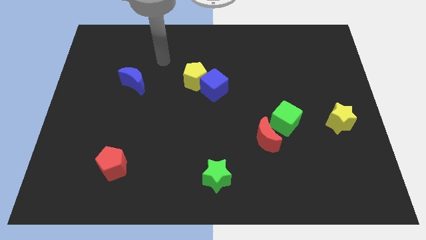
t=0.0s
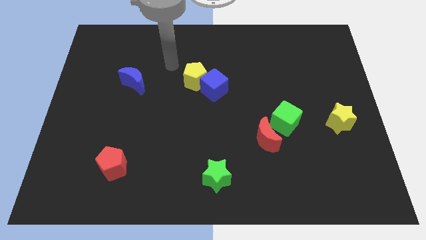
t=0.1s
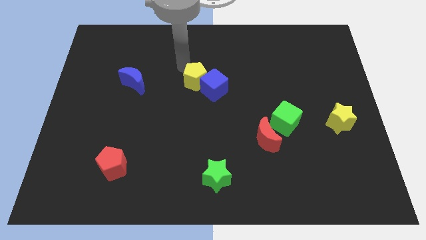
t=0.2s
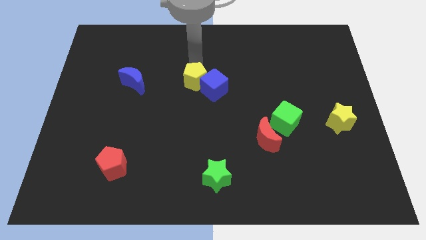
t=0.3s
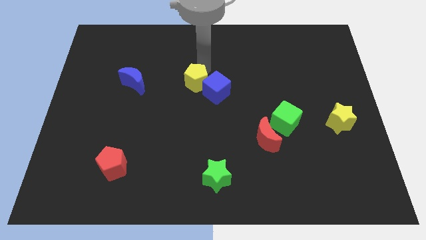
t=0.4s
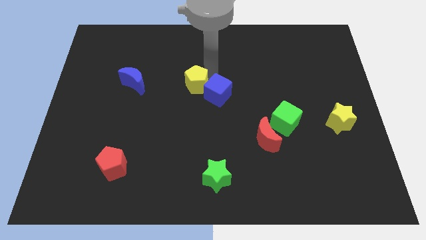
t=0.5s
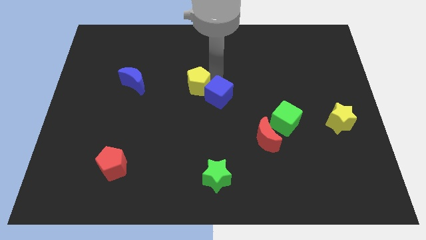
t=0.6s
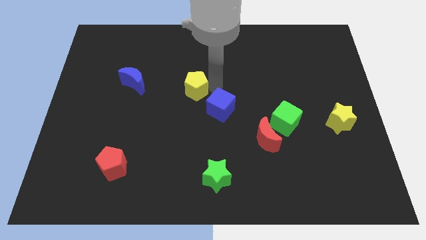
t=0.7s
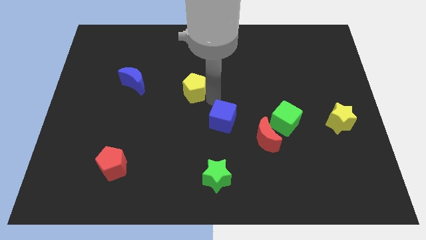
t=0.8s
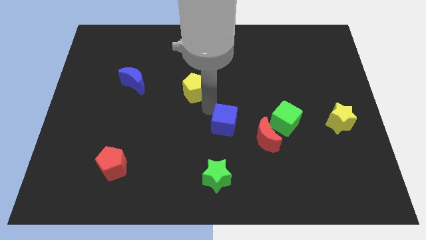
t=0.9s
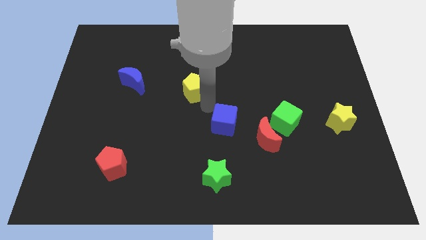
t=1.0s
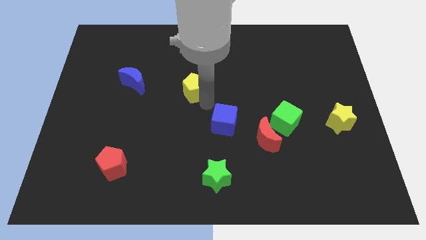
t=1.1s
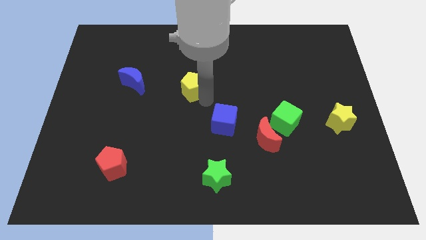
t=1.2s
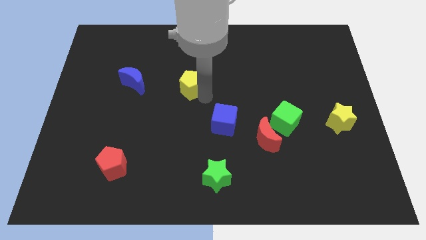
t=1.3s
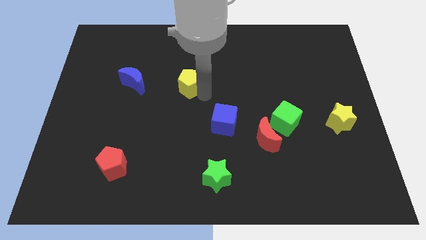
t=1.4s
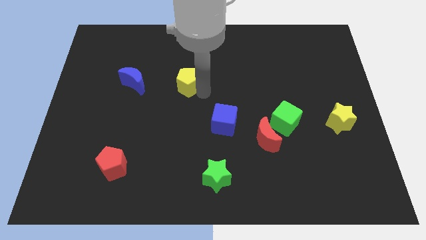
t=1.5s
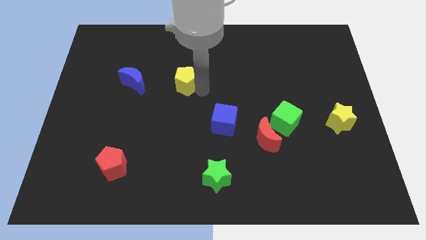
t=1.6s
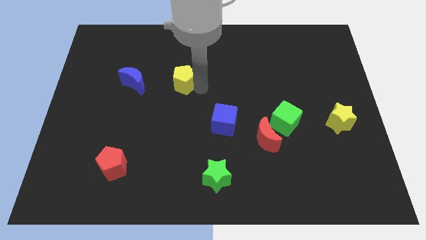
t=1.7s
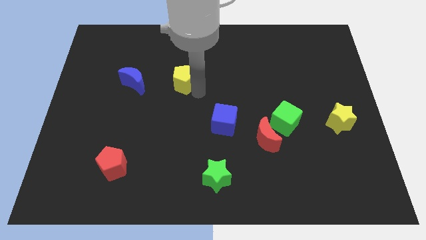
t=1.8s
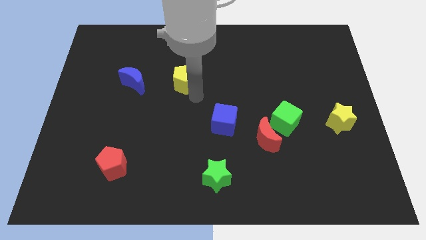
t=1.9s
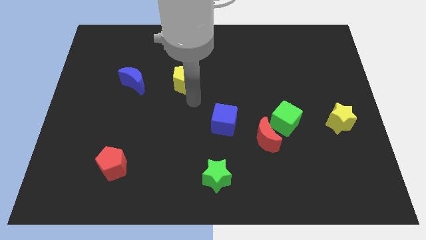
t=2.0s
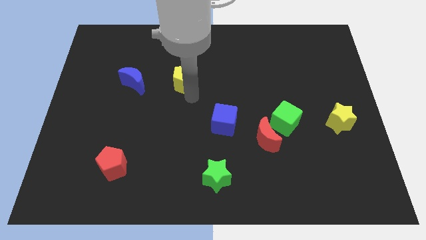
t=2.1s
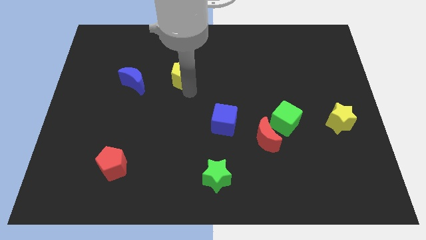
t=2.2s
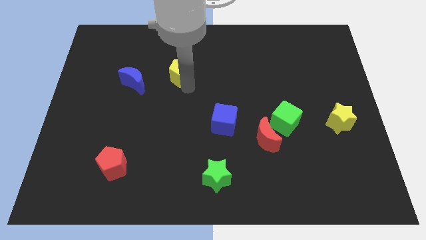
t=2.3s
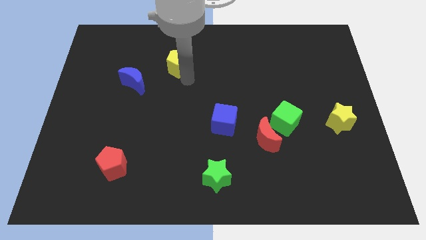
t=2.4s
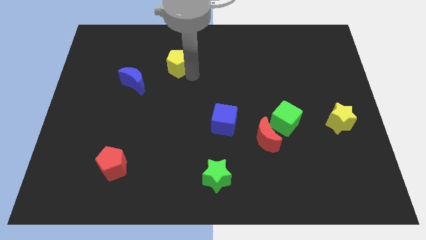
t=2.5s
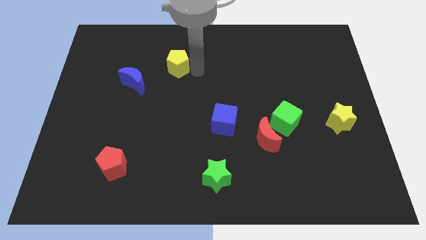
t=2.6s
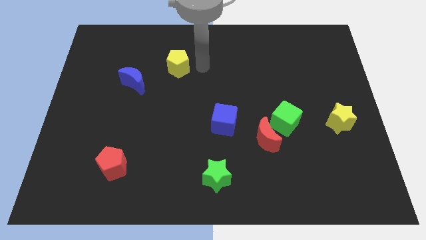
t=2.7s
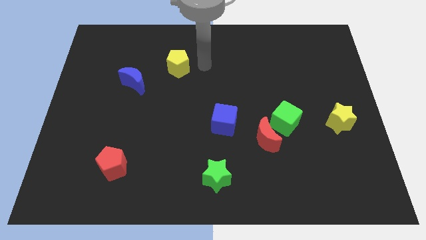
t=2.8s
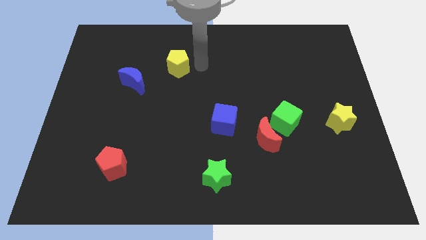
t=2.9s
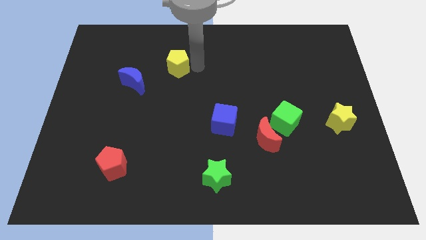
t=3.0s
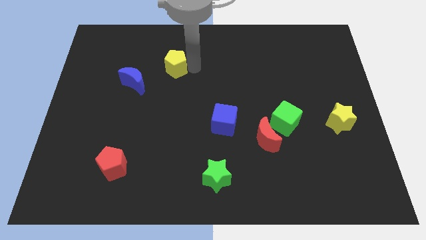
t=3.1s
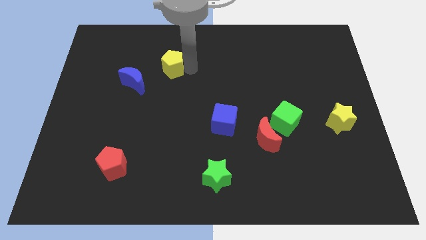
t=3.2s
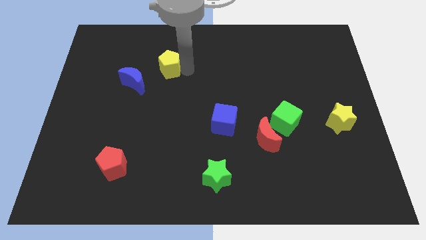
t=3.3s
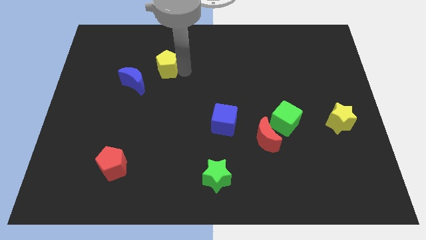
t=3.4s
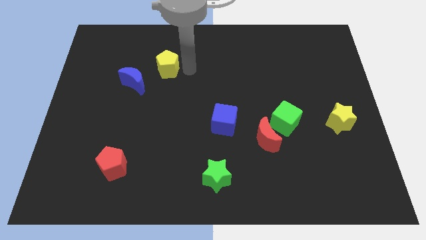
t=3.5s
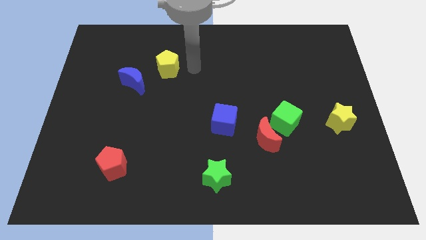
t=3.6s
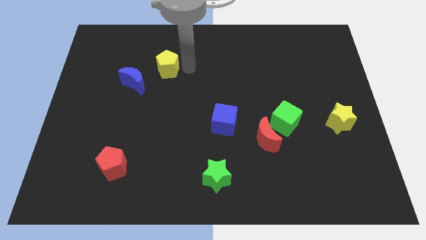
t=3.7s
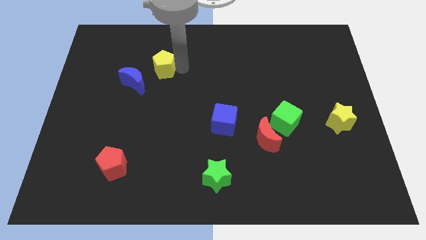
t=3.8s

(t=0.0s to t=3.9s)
slightly move the yellow pentagon left

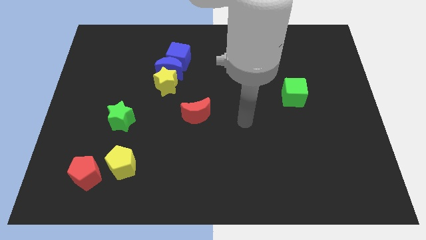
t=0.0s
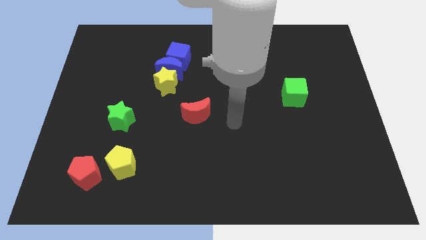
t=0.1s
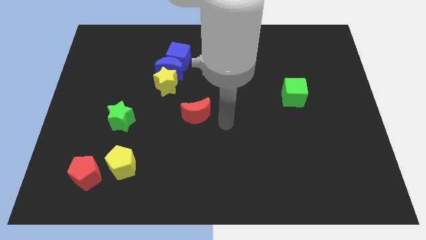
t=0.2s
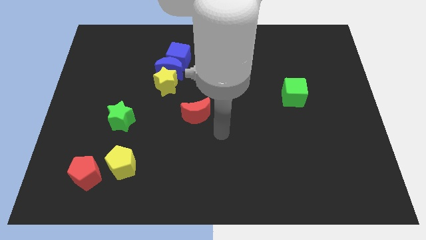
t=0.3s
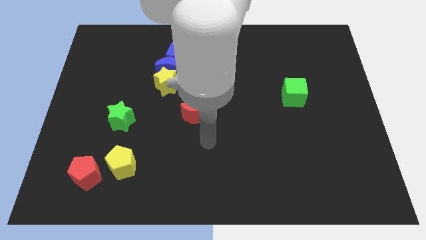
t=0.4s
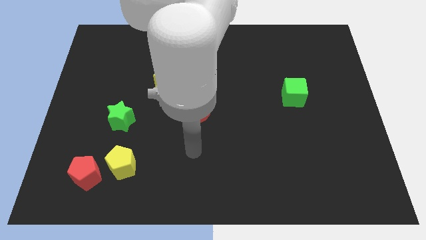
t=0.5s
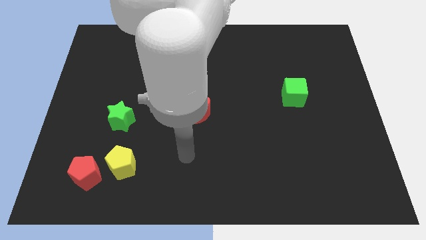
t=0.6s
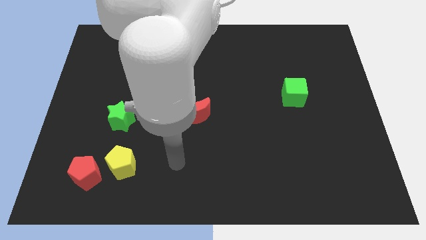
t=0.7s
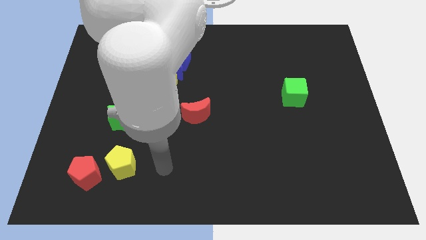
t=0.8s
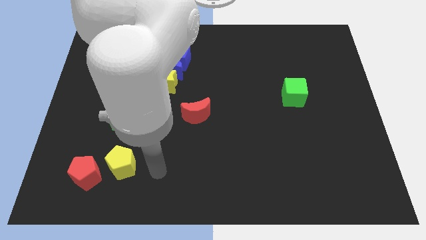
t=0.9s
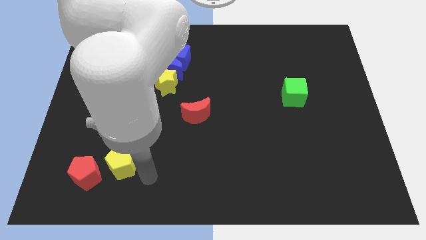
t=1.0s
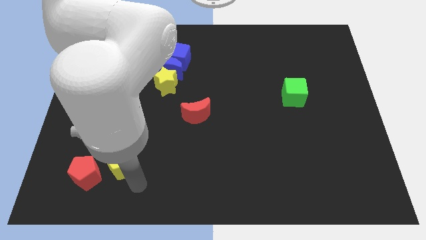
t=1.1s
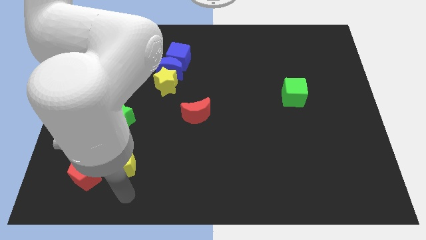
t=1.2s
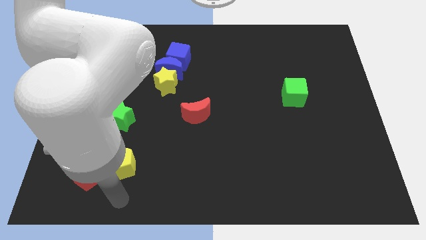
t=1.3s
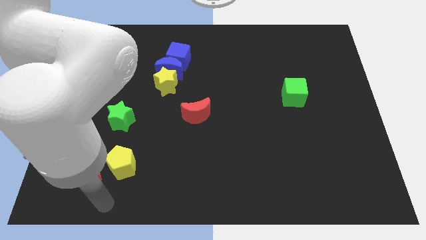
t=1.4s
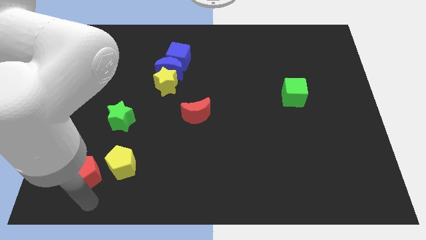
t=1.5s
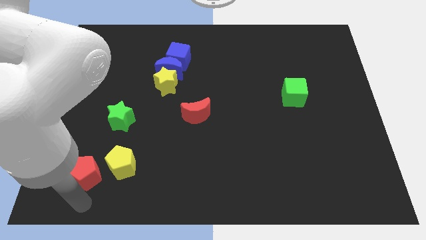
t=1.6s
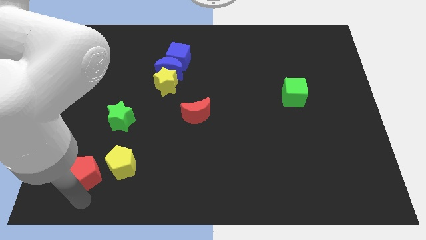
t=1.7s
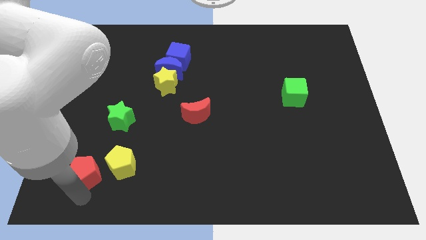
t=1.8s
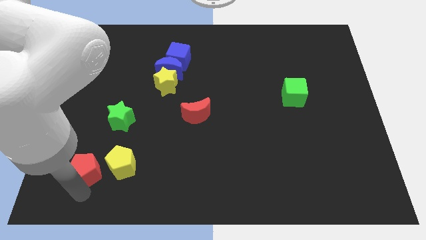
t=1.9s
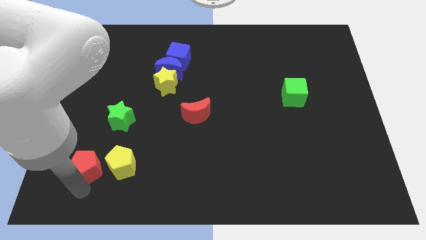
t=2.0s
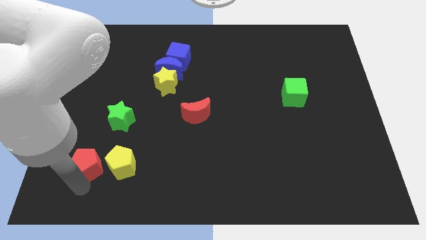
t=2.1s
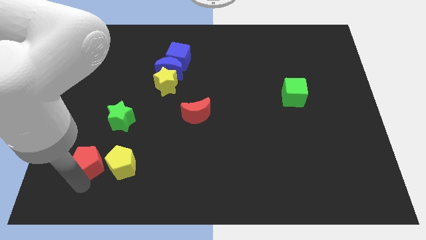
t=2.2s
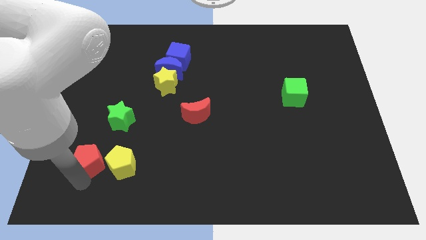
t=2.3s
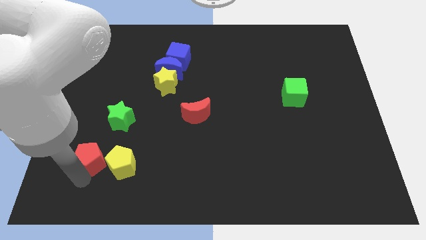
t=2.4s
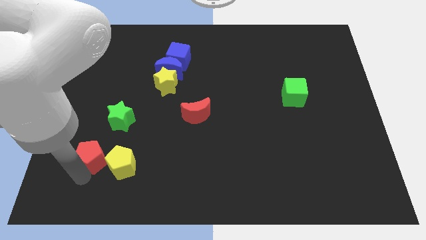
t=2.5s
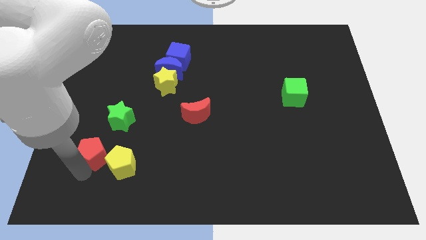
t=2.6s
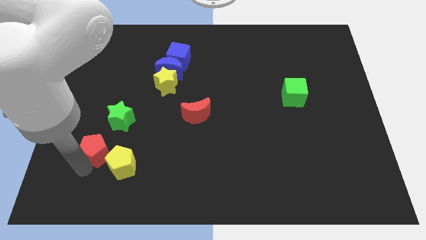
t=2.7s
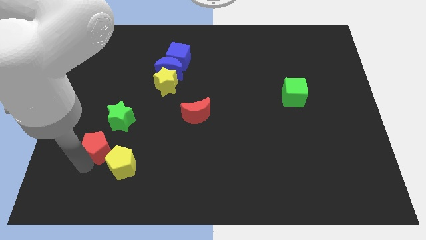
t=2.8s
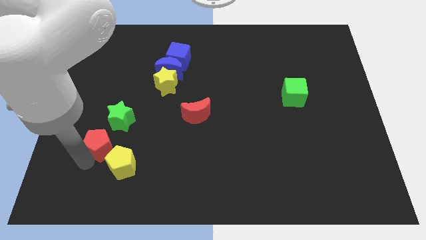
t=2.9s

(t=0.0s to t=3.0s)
push the red pentagon up a little

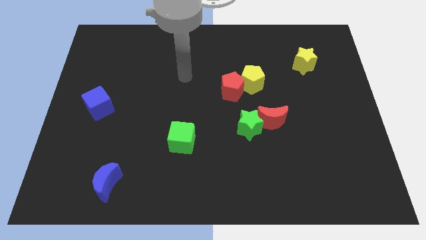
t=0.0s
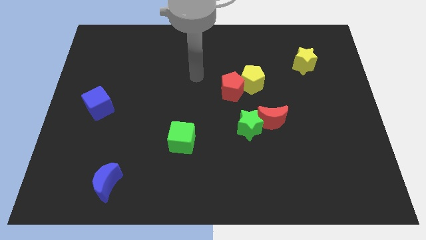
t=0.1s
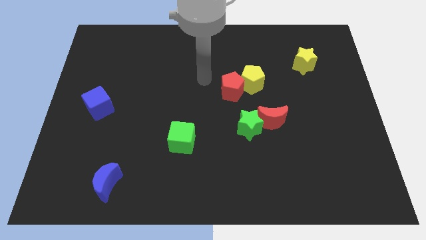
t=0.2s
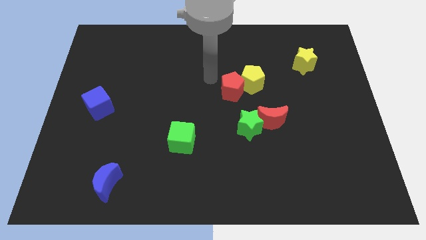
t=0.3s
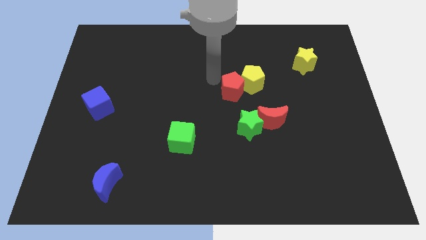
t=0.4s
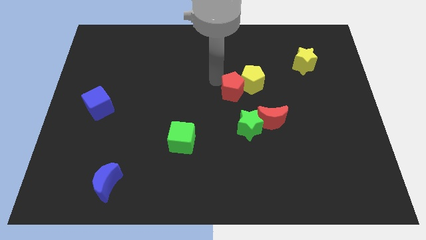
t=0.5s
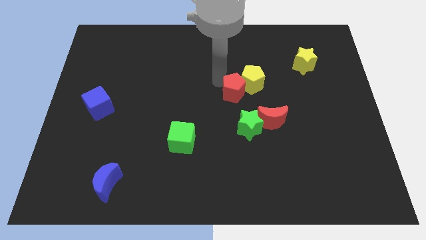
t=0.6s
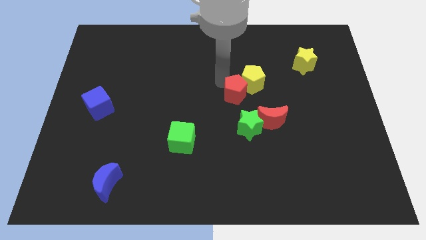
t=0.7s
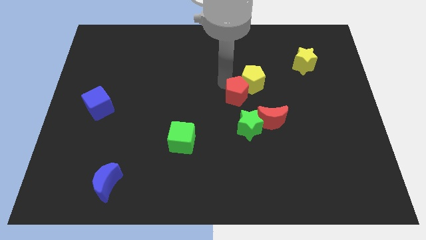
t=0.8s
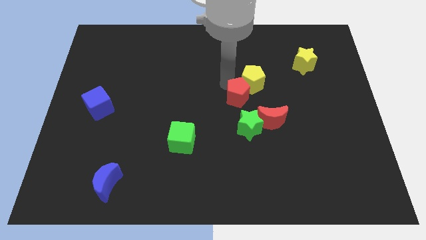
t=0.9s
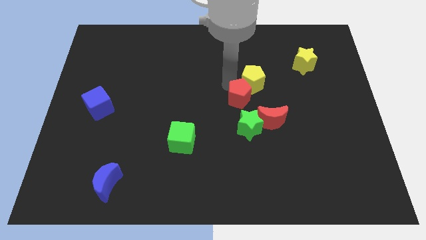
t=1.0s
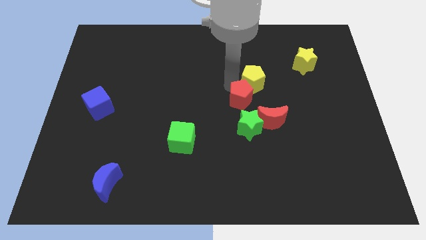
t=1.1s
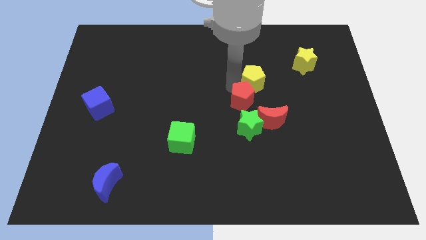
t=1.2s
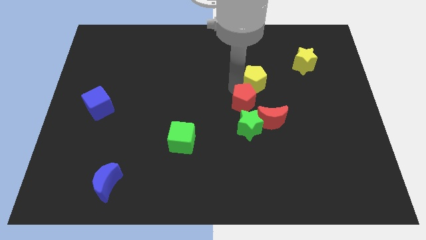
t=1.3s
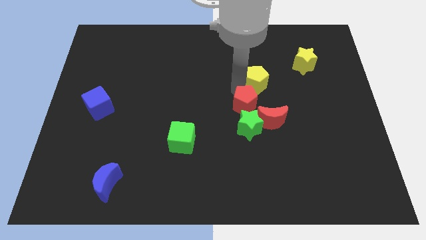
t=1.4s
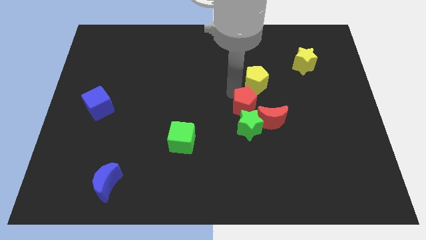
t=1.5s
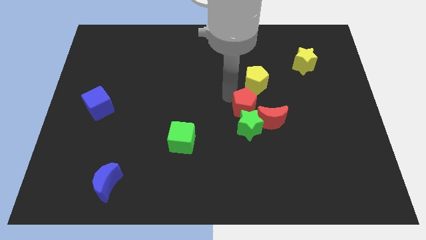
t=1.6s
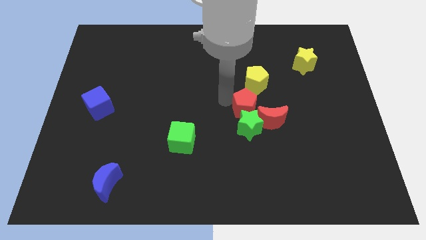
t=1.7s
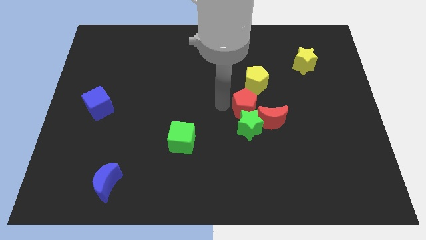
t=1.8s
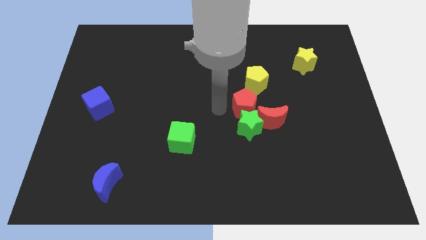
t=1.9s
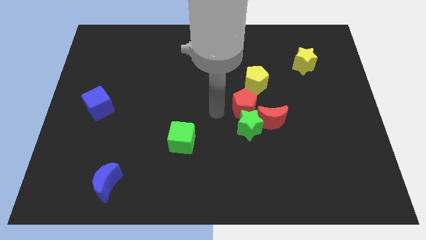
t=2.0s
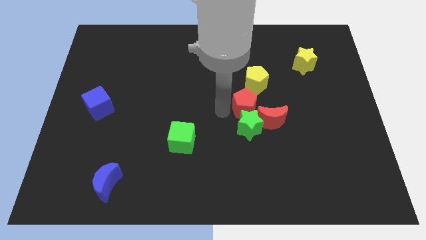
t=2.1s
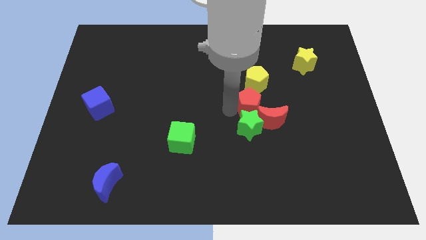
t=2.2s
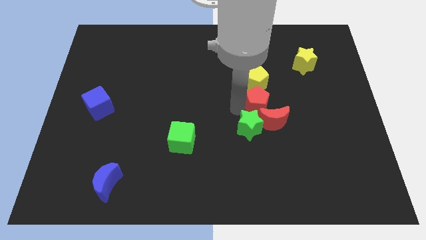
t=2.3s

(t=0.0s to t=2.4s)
slightly push the red pentagon down and to the right
